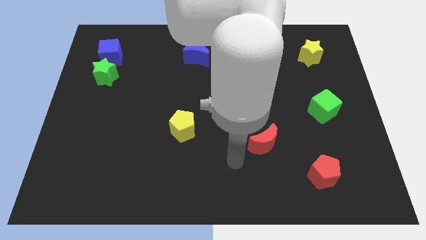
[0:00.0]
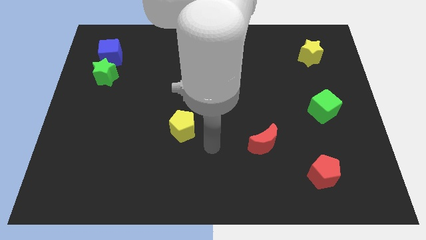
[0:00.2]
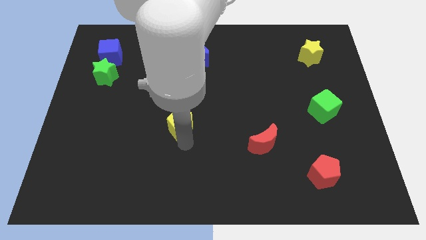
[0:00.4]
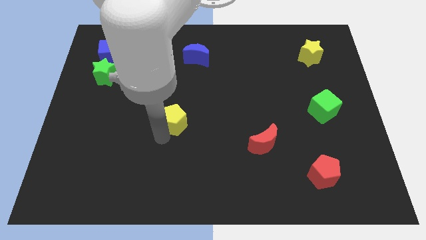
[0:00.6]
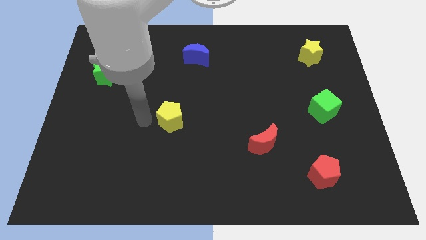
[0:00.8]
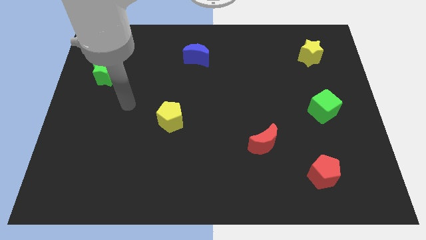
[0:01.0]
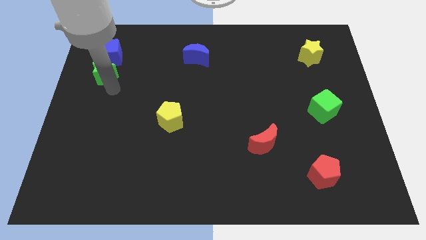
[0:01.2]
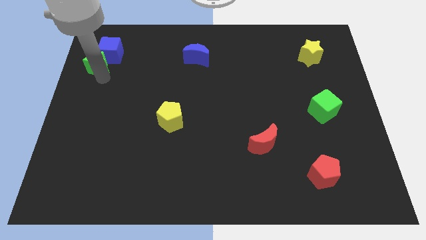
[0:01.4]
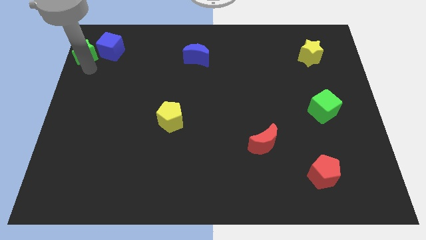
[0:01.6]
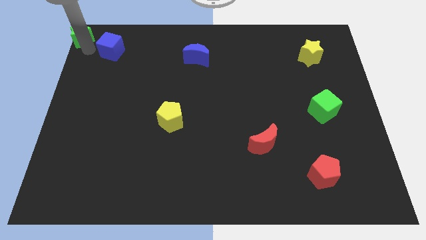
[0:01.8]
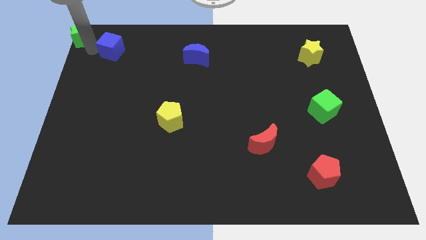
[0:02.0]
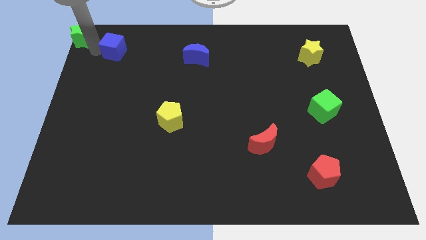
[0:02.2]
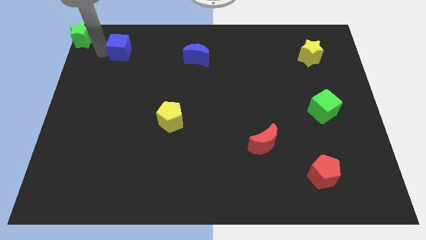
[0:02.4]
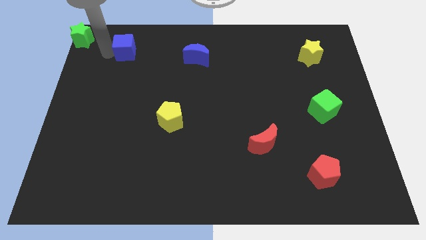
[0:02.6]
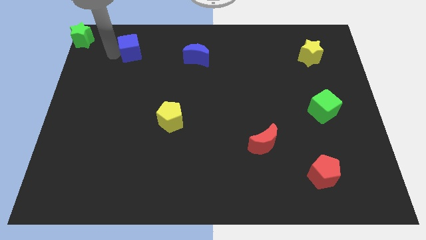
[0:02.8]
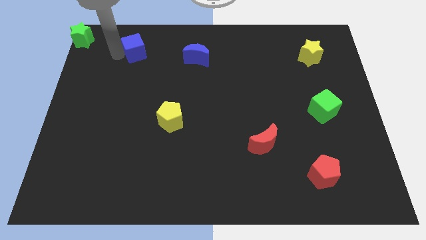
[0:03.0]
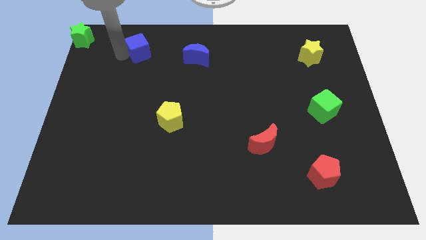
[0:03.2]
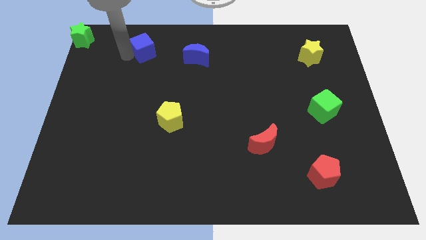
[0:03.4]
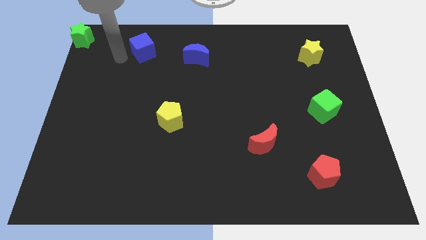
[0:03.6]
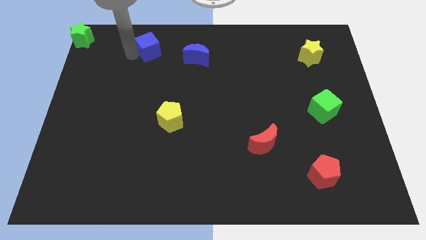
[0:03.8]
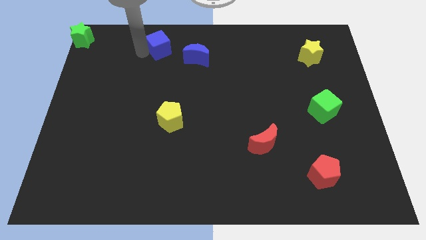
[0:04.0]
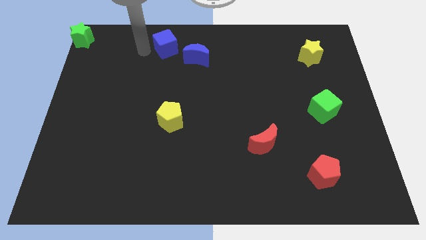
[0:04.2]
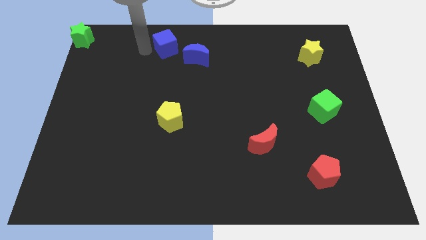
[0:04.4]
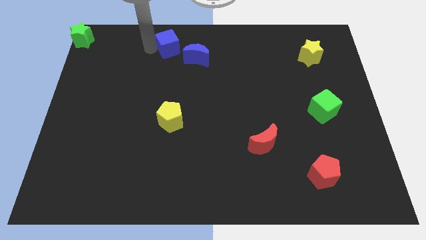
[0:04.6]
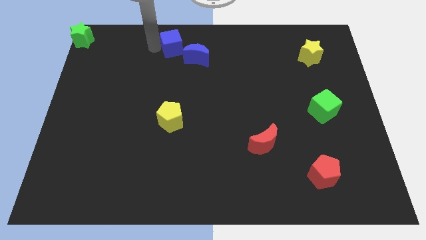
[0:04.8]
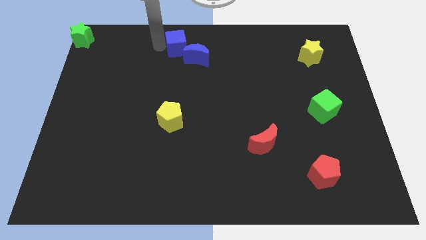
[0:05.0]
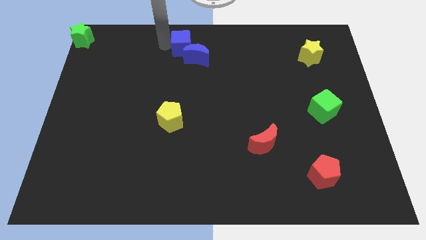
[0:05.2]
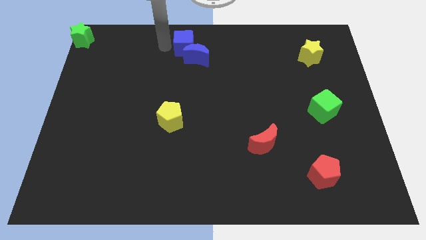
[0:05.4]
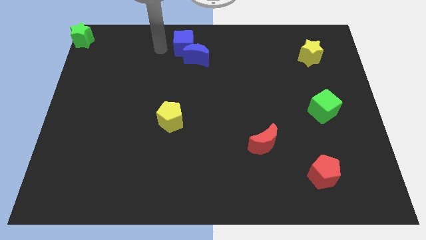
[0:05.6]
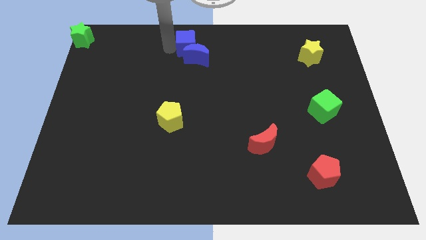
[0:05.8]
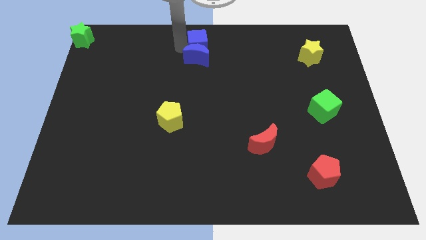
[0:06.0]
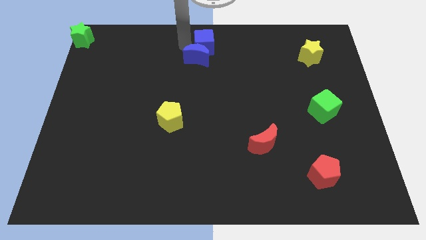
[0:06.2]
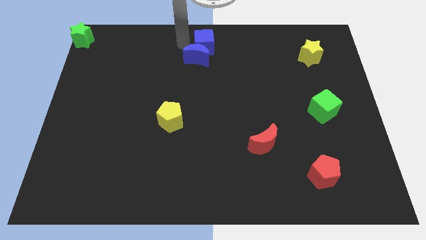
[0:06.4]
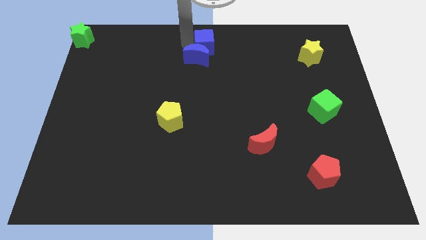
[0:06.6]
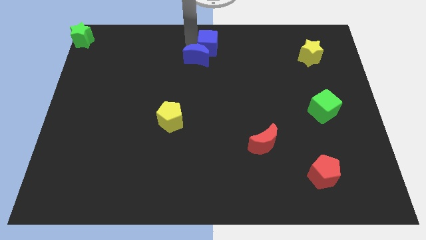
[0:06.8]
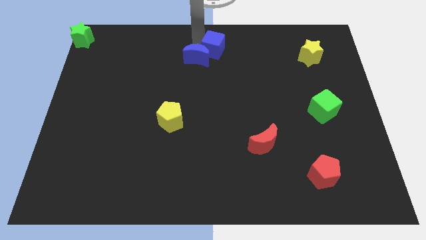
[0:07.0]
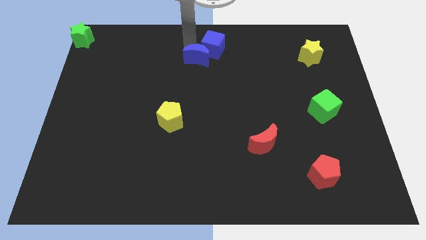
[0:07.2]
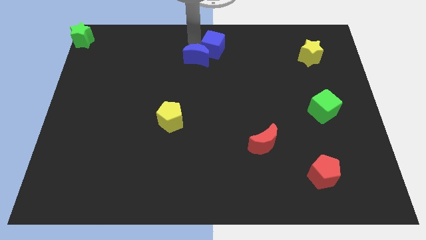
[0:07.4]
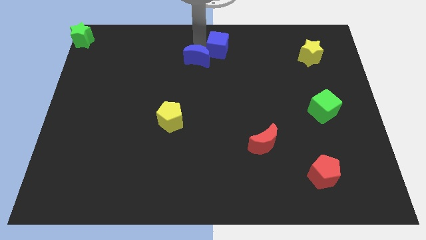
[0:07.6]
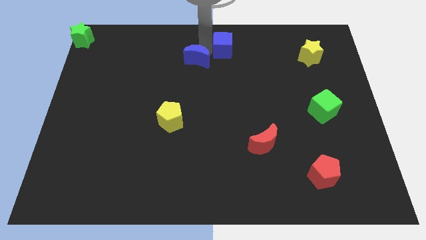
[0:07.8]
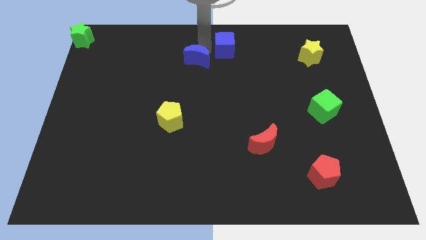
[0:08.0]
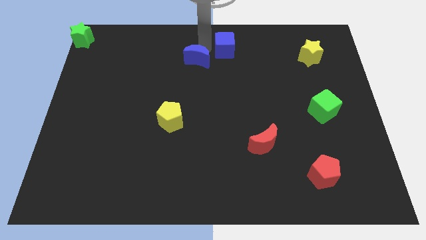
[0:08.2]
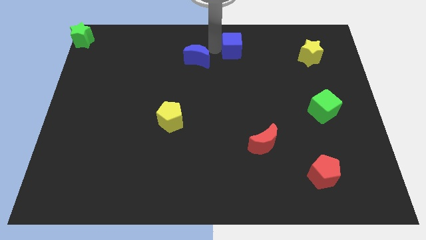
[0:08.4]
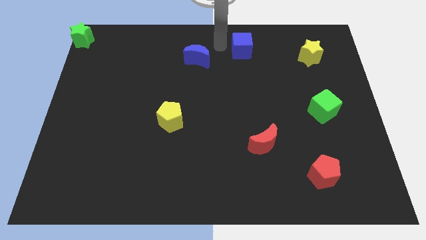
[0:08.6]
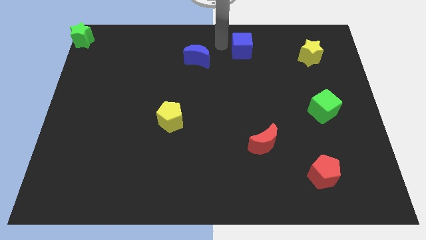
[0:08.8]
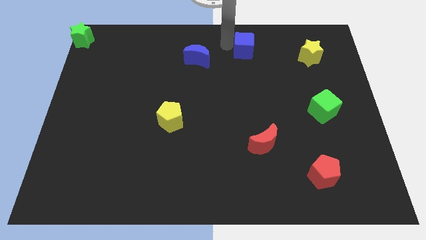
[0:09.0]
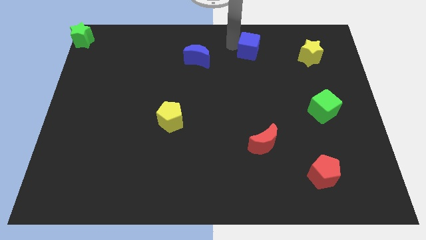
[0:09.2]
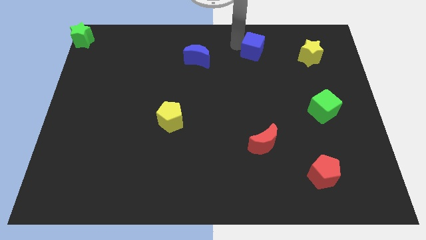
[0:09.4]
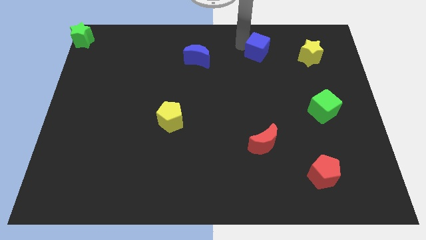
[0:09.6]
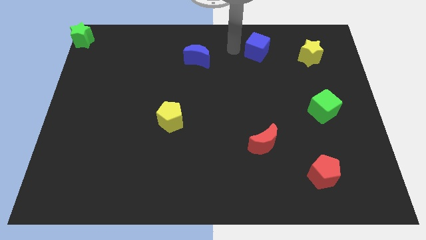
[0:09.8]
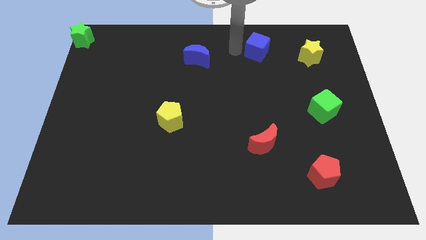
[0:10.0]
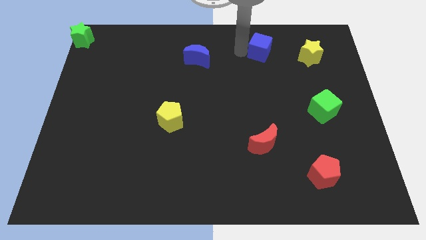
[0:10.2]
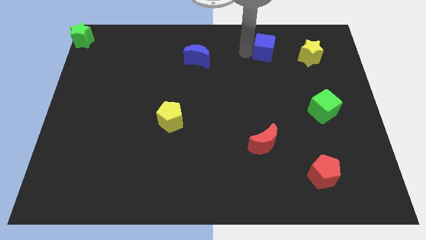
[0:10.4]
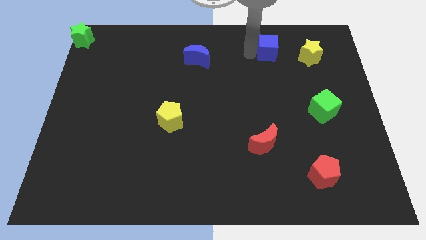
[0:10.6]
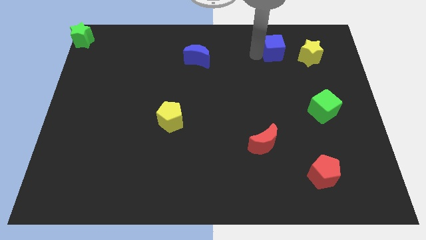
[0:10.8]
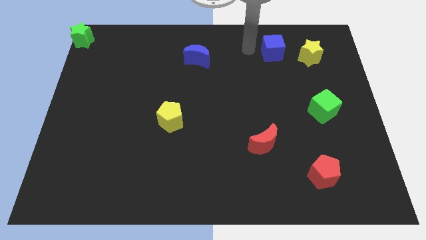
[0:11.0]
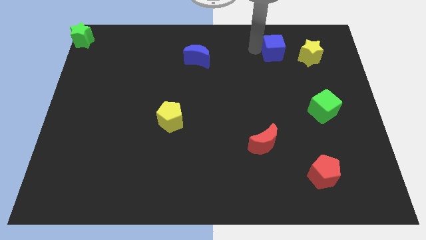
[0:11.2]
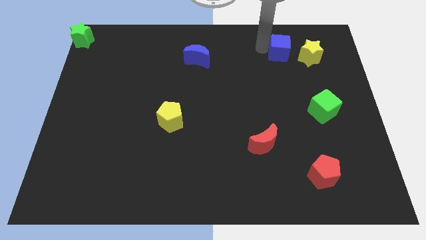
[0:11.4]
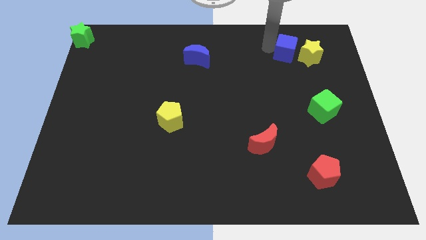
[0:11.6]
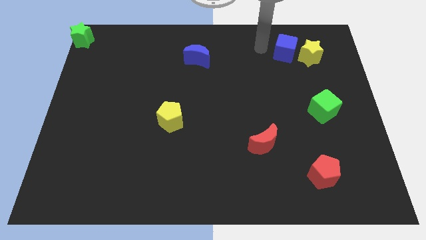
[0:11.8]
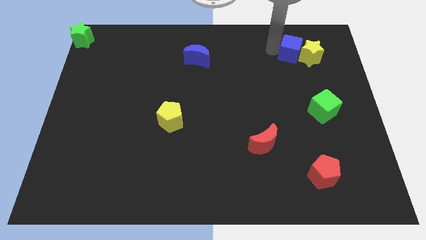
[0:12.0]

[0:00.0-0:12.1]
move the blue cube next to the yellow star

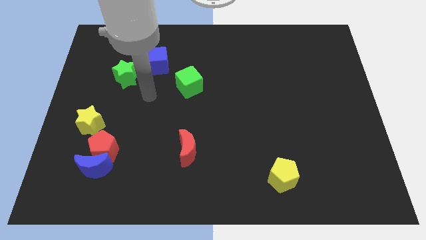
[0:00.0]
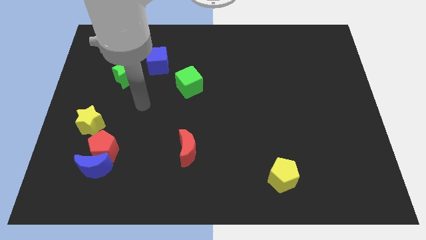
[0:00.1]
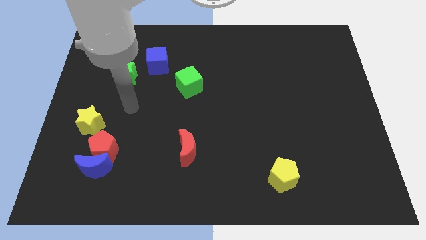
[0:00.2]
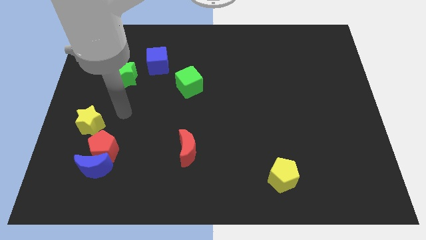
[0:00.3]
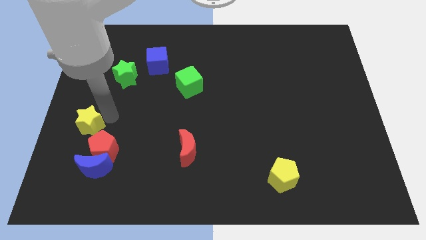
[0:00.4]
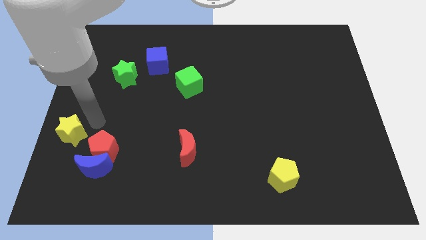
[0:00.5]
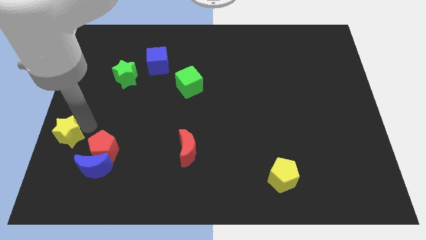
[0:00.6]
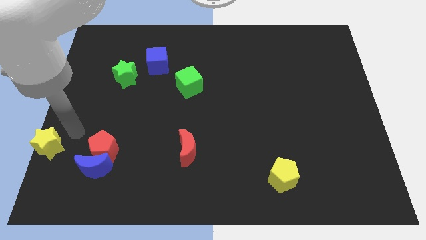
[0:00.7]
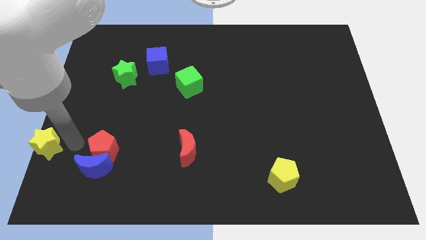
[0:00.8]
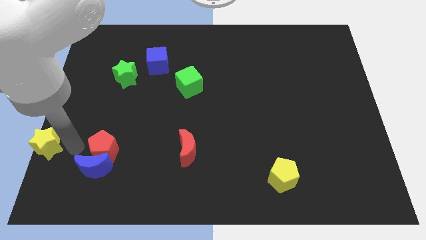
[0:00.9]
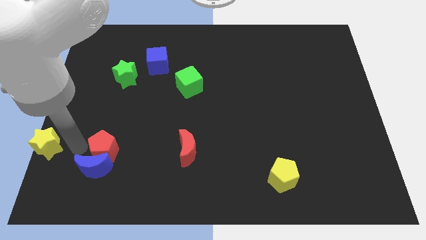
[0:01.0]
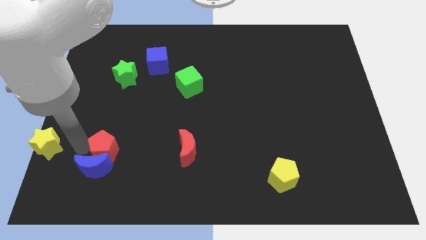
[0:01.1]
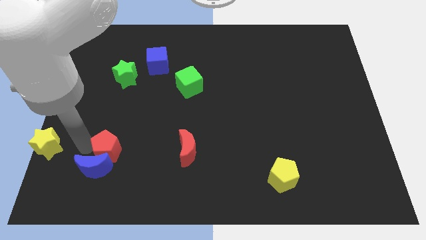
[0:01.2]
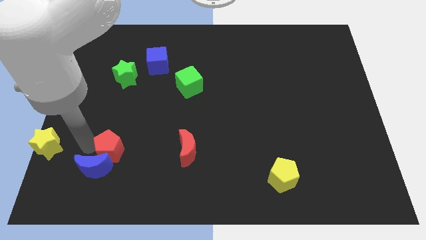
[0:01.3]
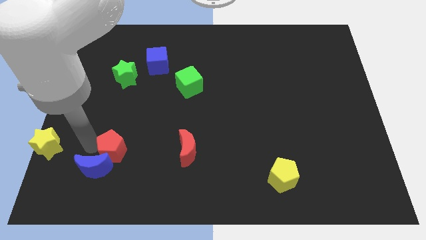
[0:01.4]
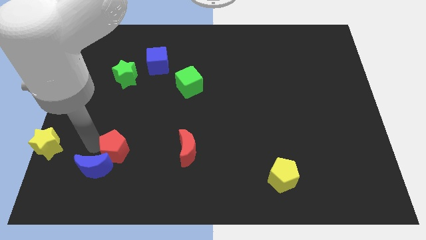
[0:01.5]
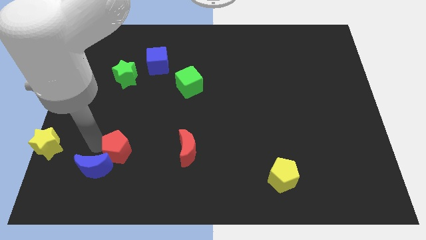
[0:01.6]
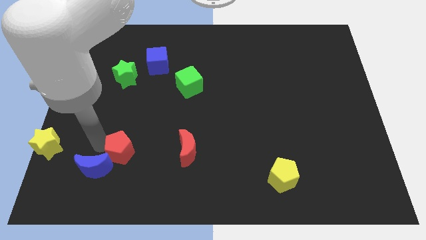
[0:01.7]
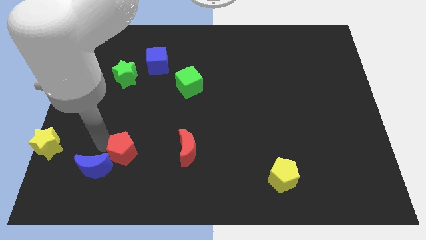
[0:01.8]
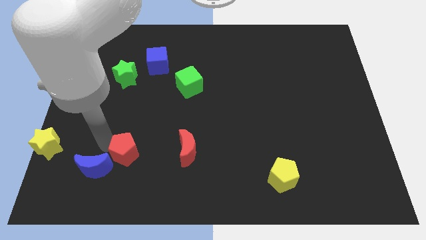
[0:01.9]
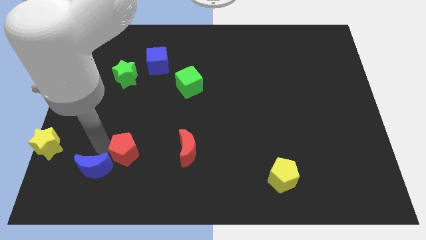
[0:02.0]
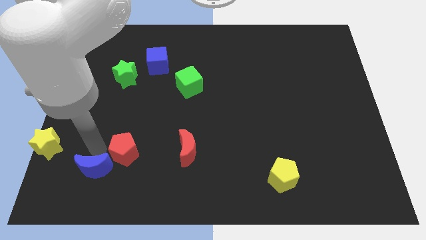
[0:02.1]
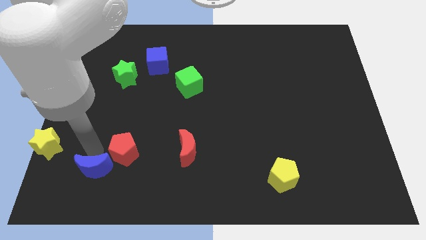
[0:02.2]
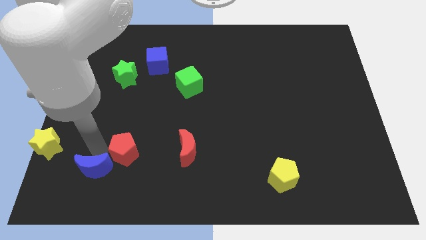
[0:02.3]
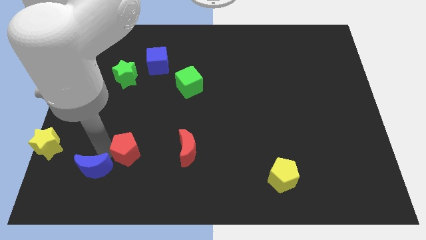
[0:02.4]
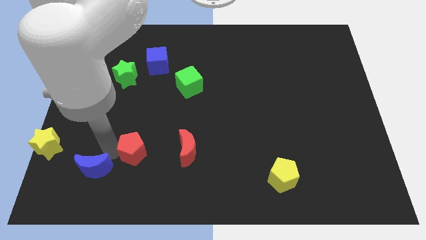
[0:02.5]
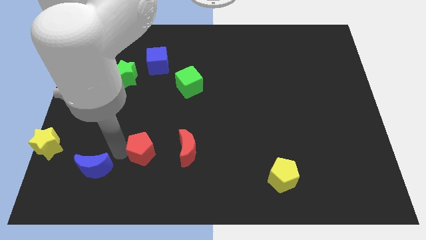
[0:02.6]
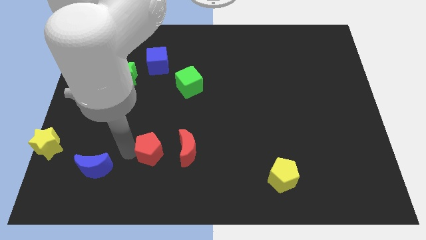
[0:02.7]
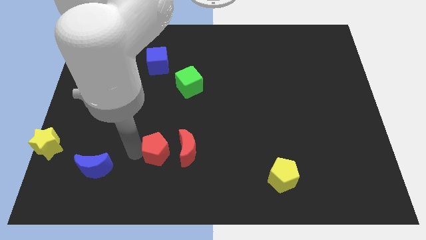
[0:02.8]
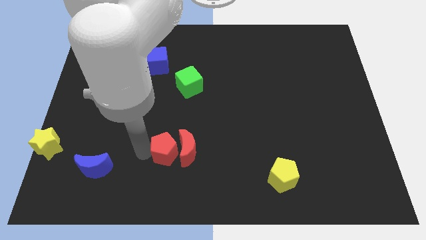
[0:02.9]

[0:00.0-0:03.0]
put the red pentagon close to the red moon
